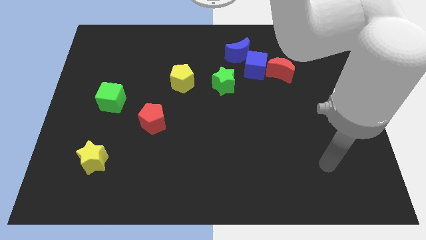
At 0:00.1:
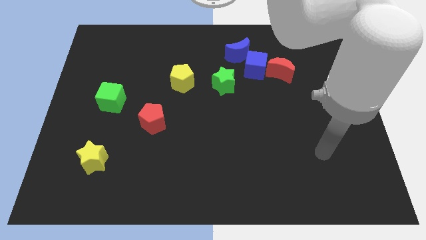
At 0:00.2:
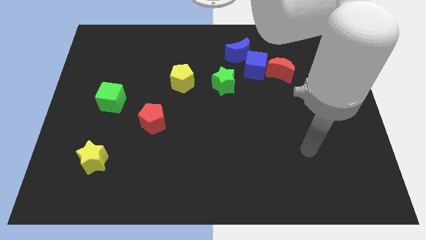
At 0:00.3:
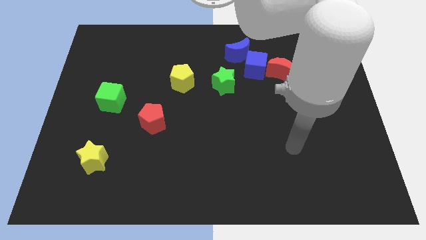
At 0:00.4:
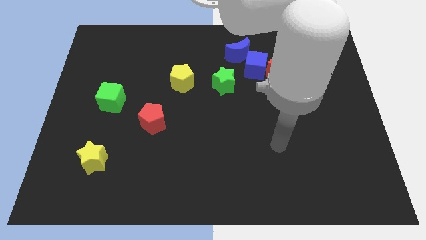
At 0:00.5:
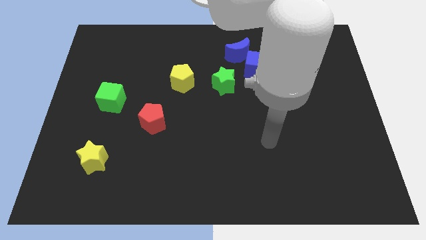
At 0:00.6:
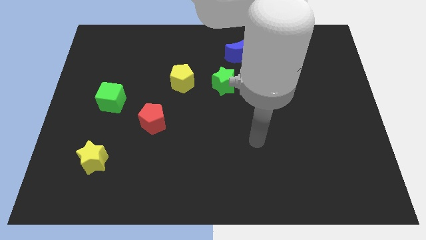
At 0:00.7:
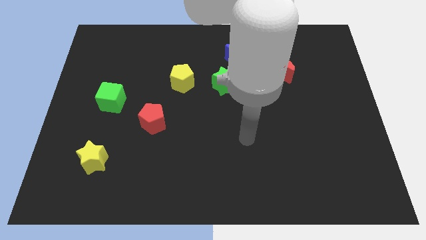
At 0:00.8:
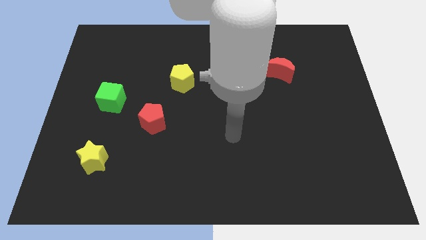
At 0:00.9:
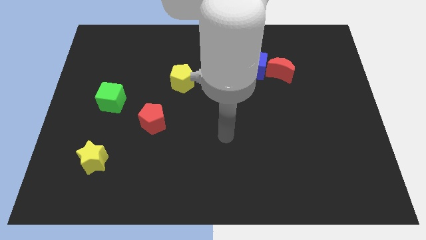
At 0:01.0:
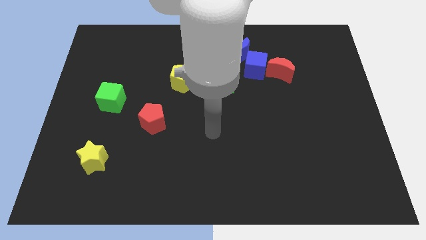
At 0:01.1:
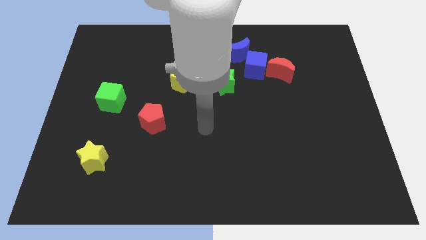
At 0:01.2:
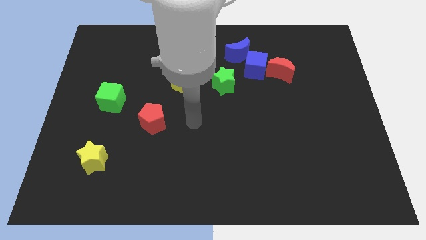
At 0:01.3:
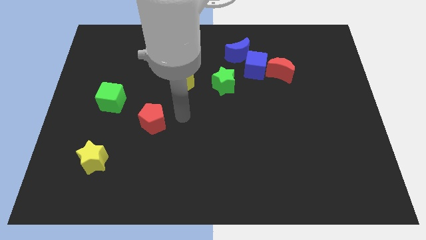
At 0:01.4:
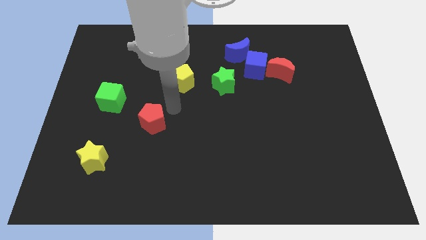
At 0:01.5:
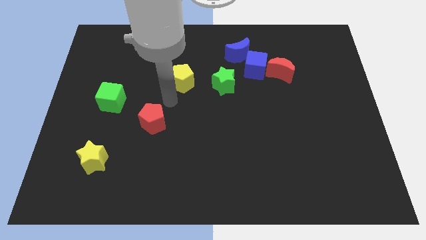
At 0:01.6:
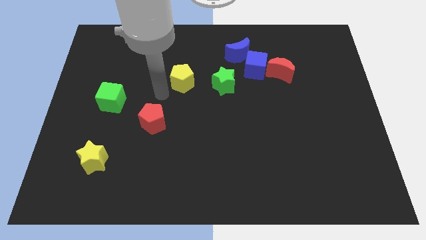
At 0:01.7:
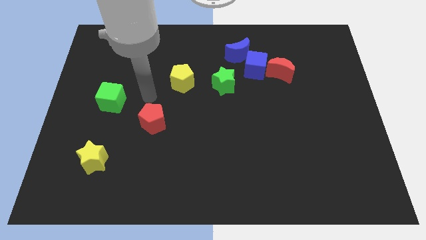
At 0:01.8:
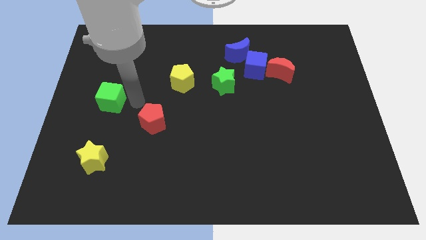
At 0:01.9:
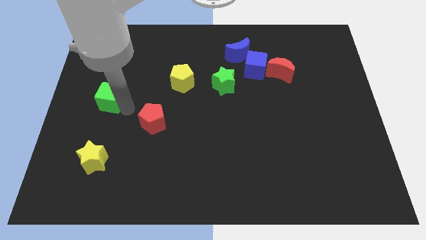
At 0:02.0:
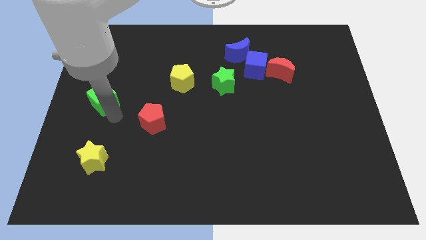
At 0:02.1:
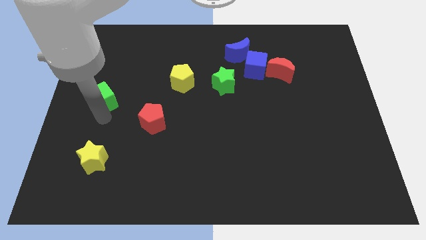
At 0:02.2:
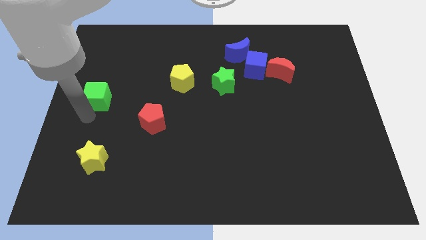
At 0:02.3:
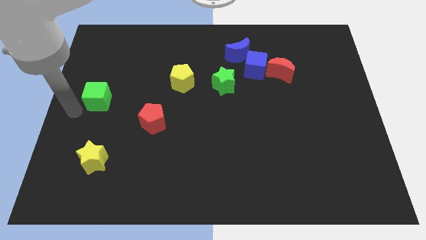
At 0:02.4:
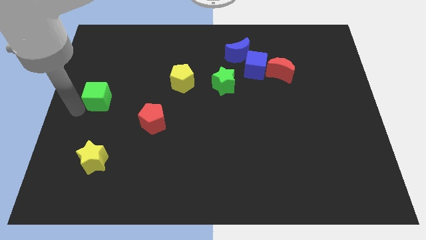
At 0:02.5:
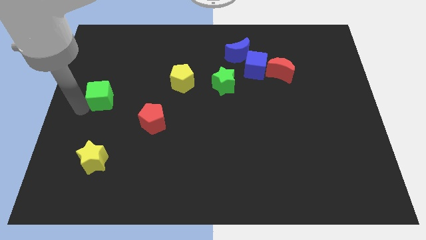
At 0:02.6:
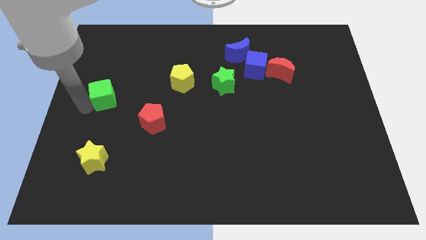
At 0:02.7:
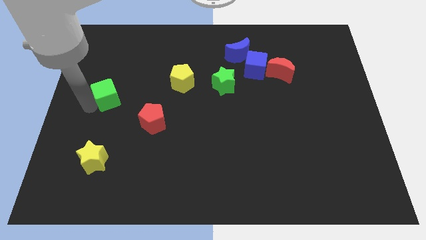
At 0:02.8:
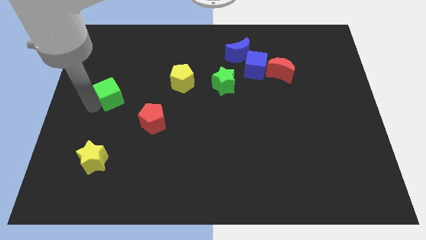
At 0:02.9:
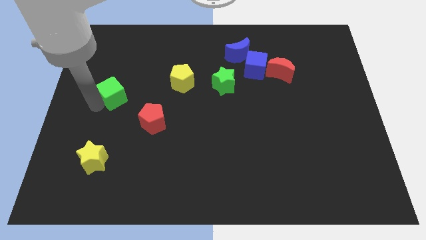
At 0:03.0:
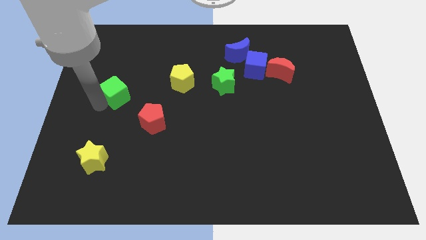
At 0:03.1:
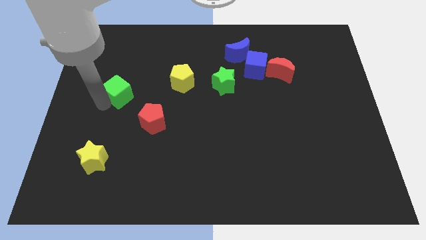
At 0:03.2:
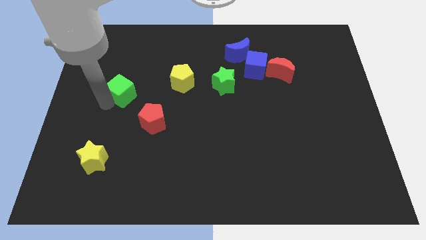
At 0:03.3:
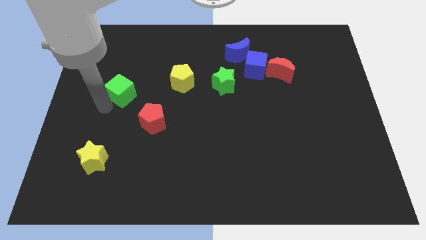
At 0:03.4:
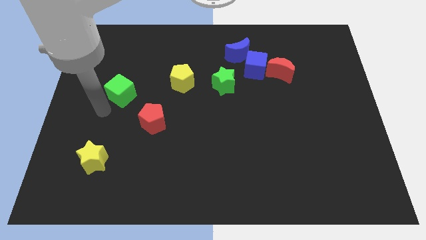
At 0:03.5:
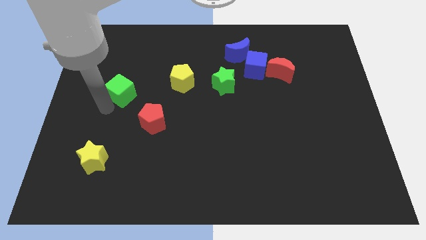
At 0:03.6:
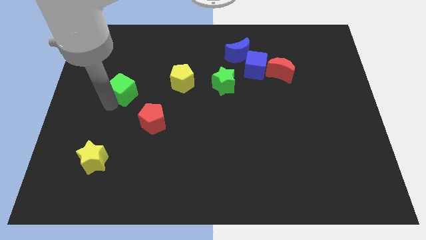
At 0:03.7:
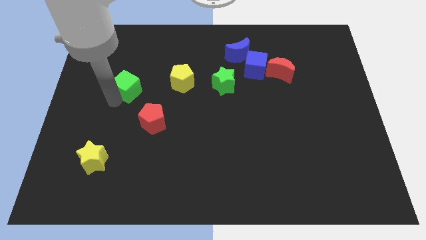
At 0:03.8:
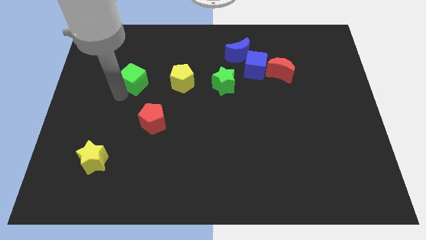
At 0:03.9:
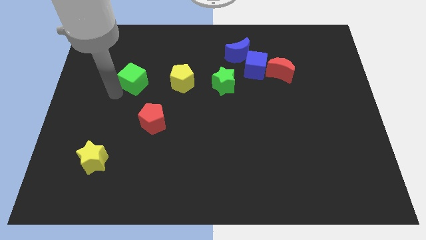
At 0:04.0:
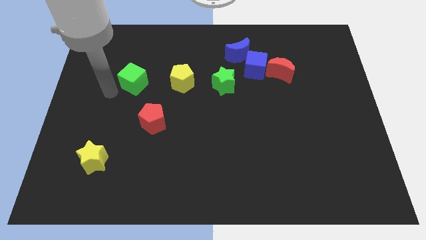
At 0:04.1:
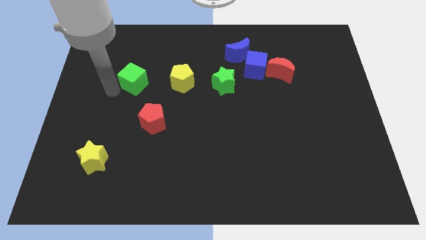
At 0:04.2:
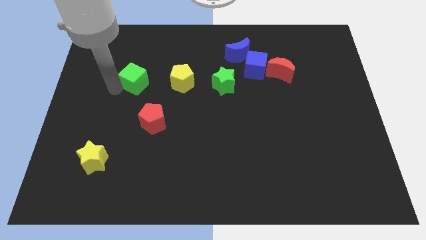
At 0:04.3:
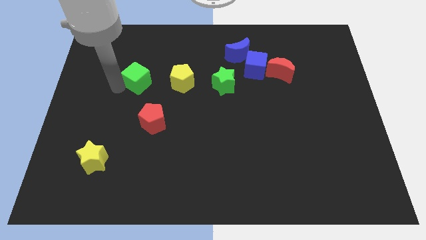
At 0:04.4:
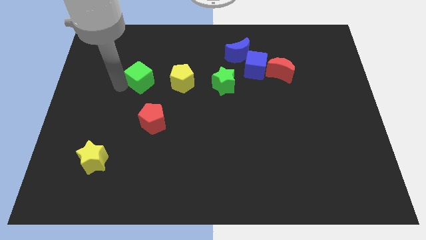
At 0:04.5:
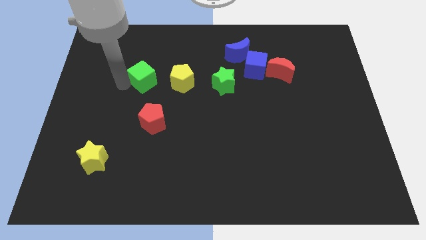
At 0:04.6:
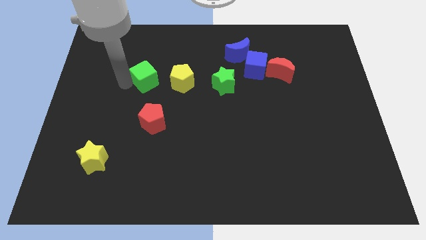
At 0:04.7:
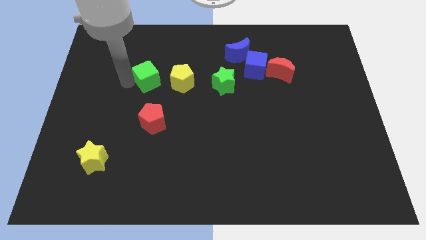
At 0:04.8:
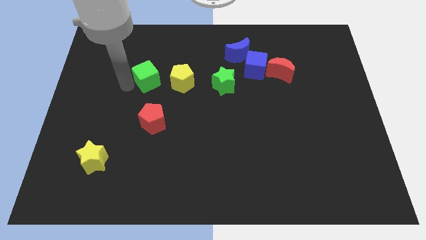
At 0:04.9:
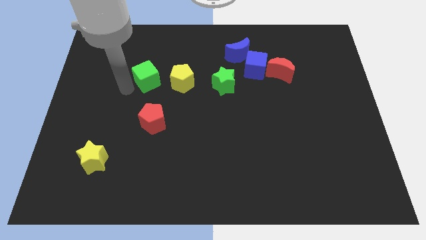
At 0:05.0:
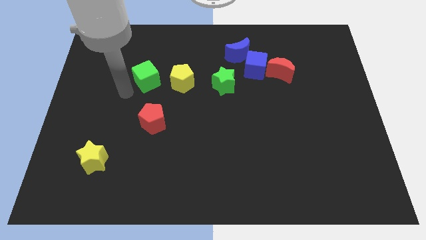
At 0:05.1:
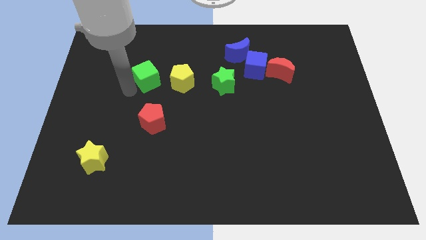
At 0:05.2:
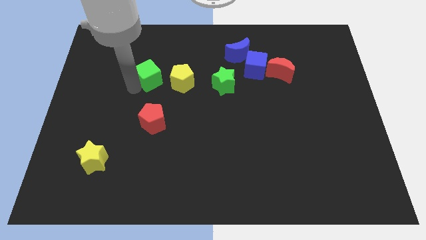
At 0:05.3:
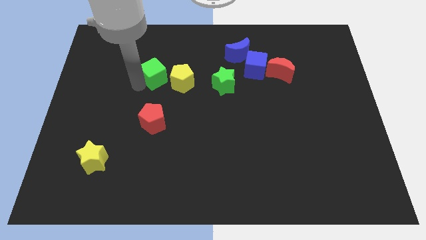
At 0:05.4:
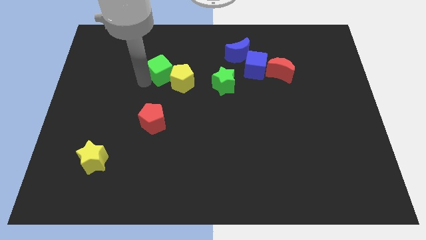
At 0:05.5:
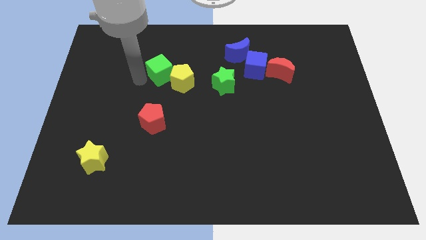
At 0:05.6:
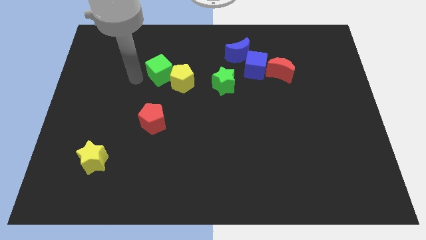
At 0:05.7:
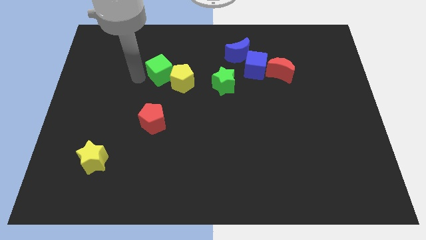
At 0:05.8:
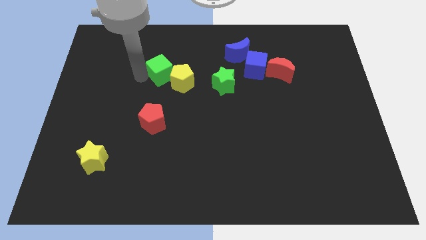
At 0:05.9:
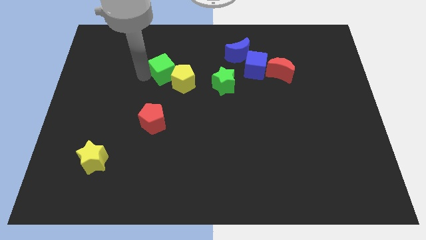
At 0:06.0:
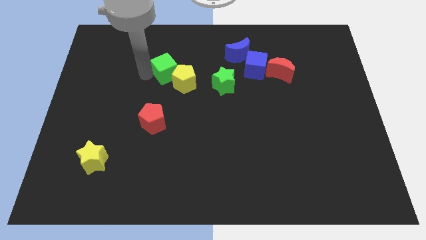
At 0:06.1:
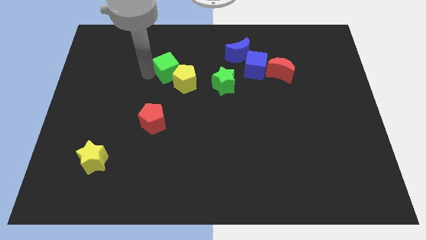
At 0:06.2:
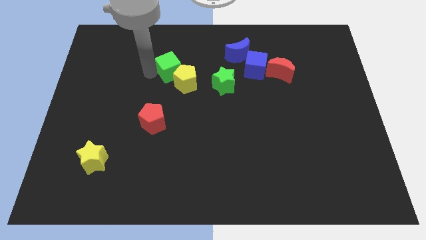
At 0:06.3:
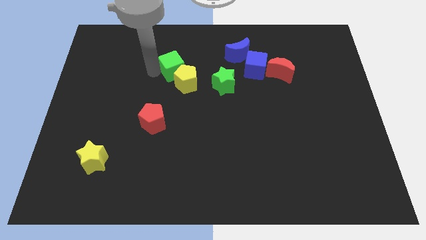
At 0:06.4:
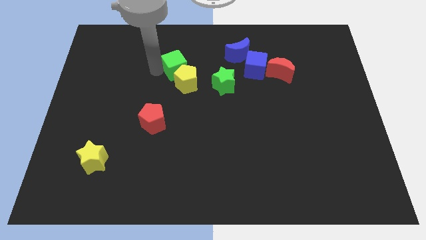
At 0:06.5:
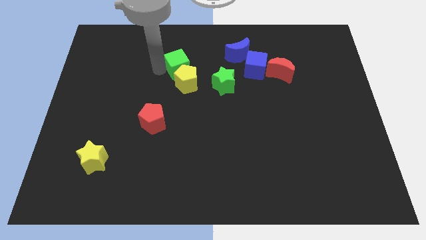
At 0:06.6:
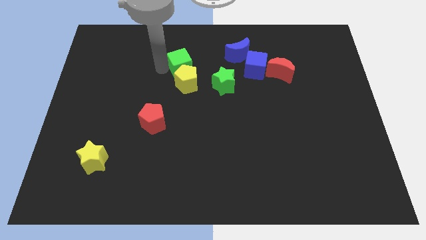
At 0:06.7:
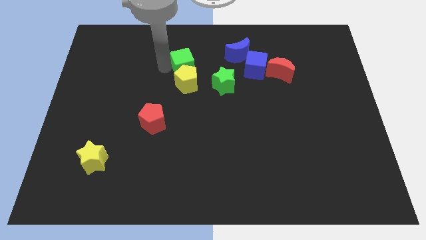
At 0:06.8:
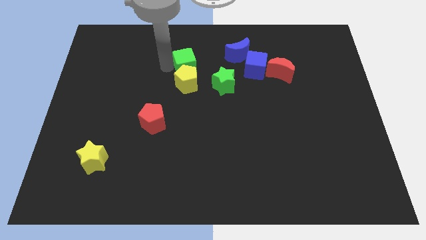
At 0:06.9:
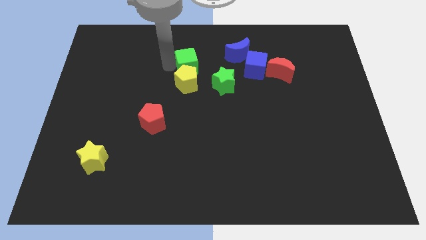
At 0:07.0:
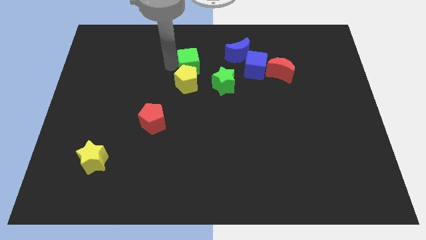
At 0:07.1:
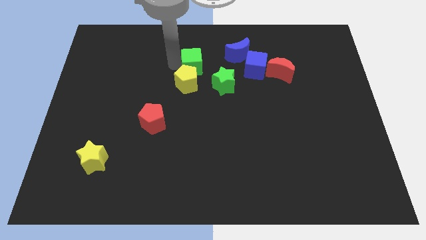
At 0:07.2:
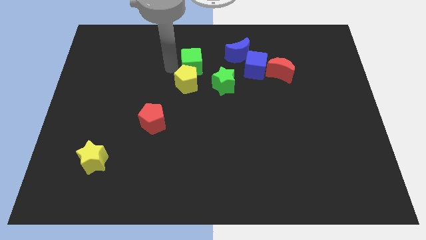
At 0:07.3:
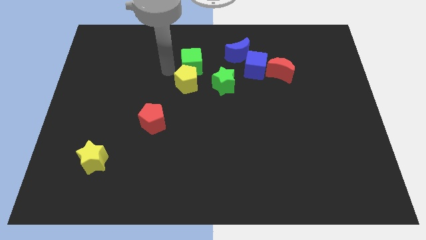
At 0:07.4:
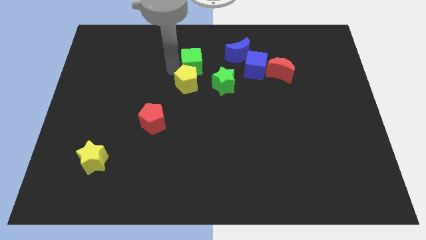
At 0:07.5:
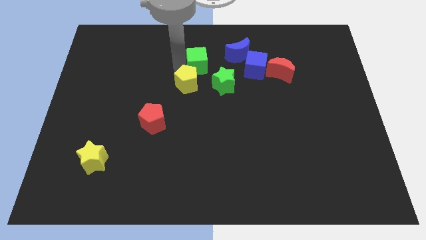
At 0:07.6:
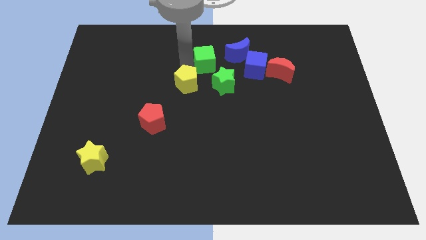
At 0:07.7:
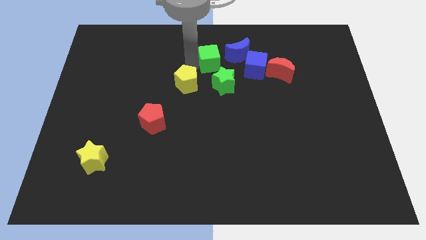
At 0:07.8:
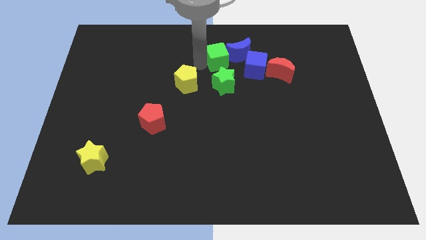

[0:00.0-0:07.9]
move the green cube close to the blue moon
